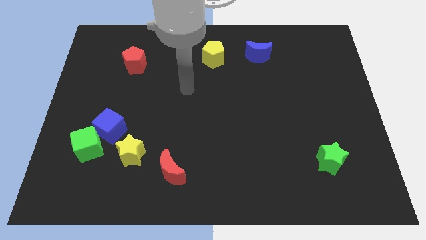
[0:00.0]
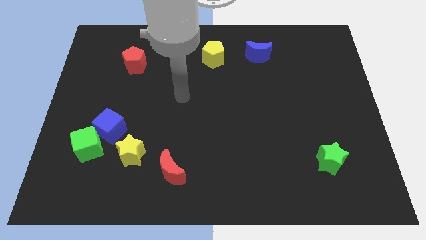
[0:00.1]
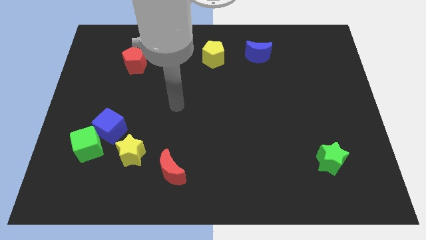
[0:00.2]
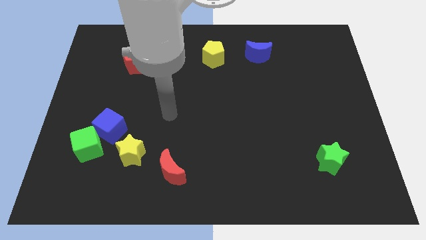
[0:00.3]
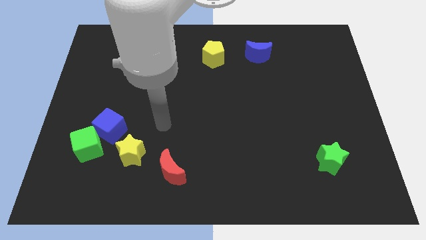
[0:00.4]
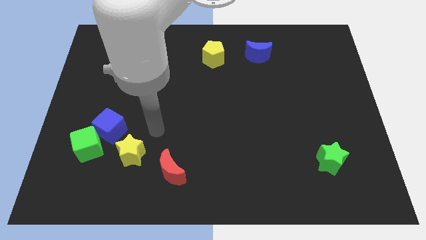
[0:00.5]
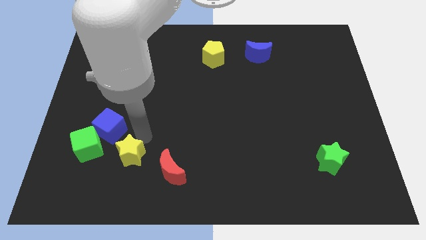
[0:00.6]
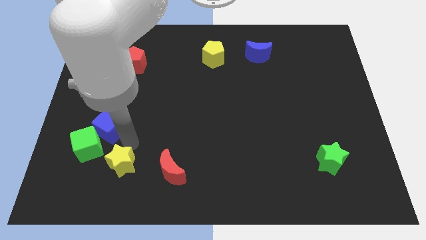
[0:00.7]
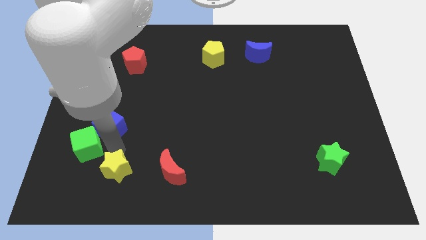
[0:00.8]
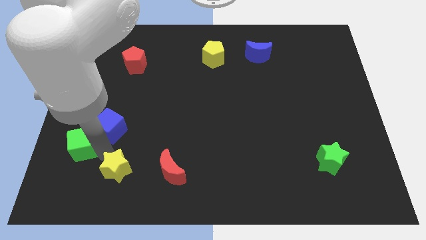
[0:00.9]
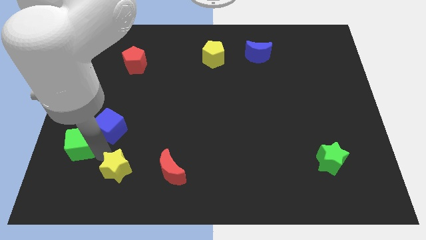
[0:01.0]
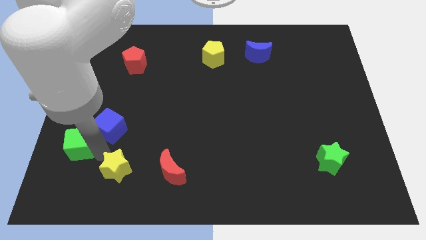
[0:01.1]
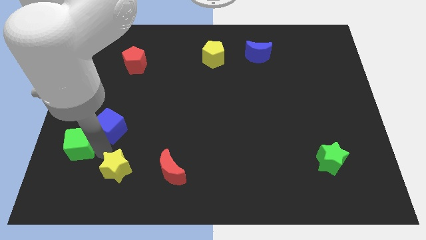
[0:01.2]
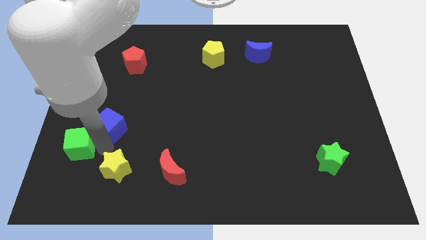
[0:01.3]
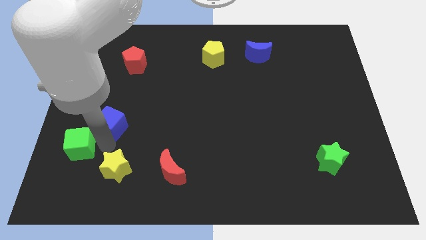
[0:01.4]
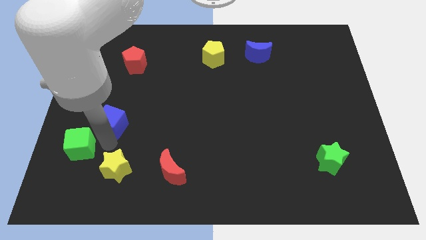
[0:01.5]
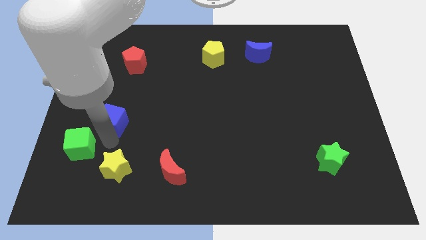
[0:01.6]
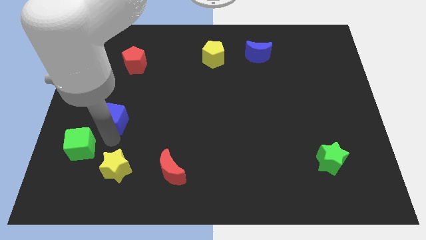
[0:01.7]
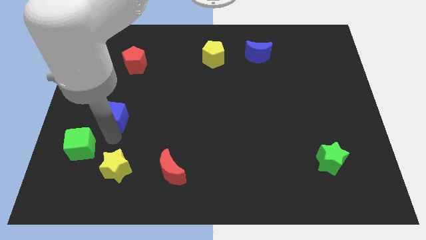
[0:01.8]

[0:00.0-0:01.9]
separate the blue cube from the green cube and yellow star

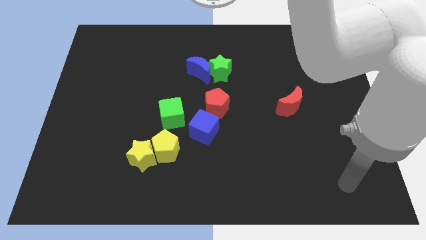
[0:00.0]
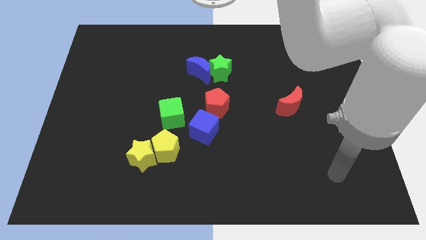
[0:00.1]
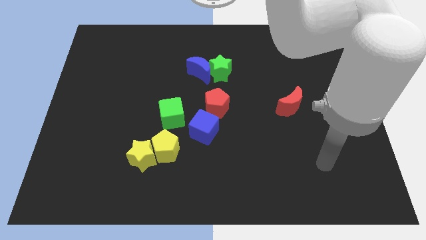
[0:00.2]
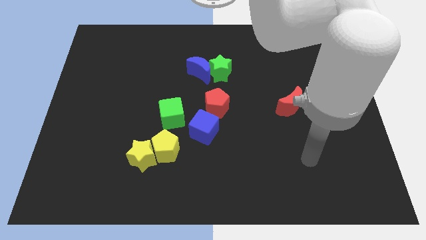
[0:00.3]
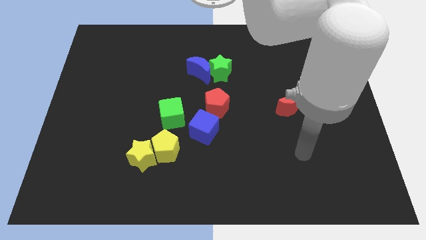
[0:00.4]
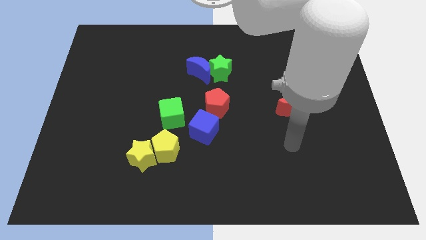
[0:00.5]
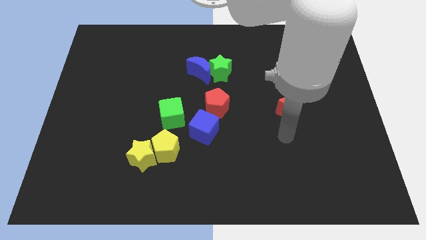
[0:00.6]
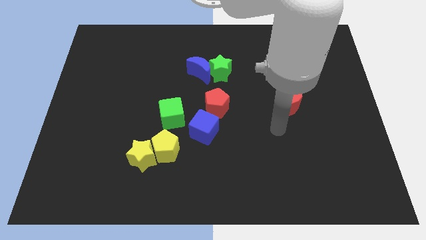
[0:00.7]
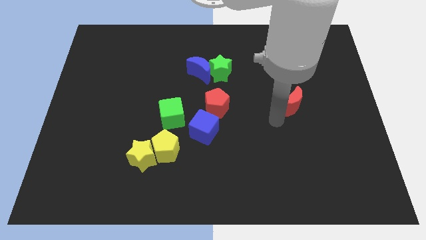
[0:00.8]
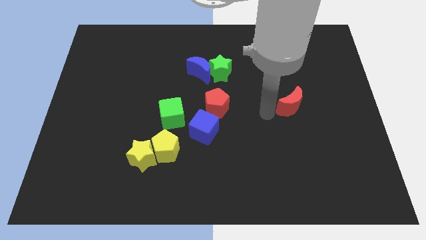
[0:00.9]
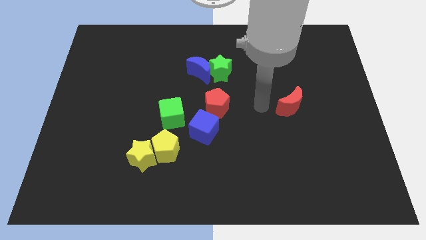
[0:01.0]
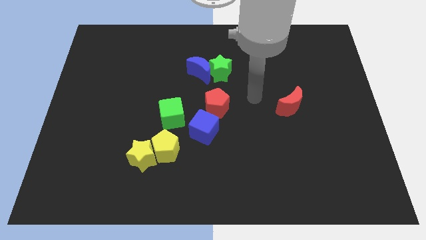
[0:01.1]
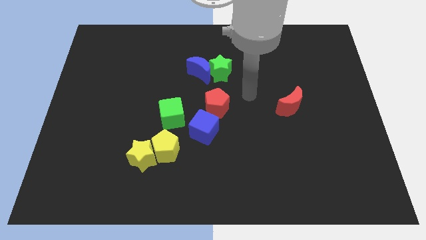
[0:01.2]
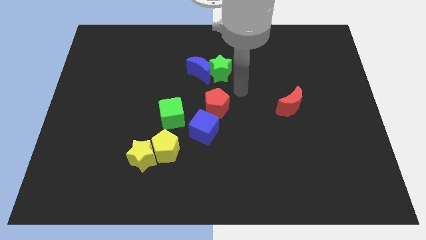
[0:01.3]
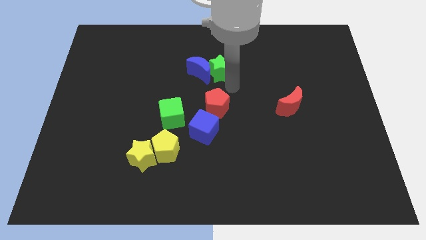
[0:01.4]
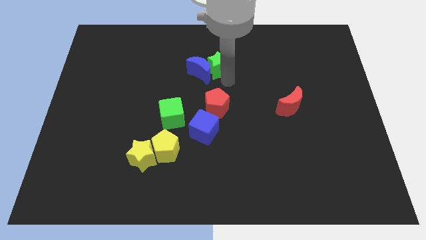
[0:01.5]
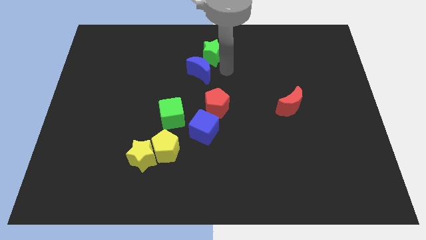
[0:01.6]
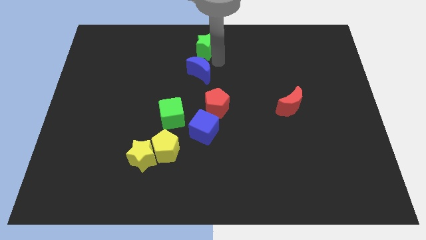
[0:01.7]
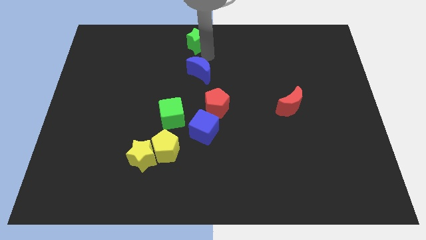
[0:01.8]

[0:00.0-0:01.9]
move the blue moon away from the green star

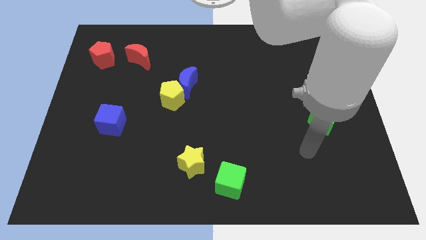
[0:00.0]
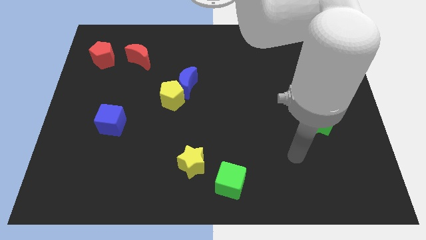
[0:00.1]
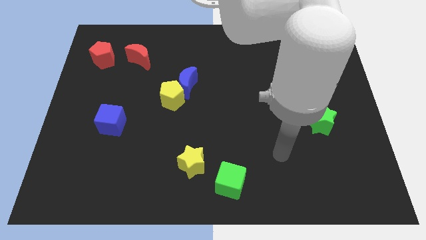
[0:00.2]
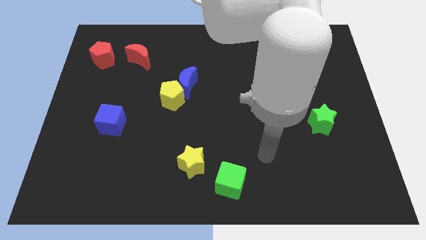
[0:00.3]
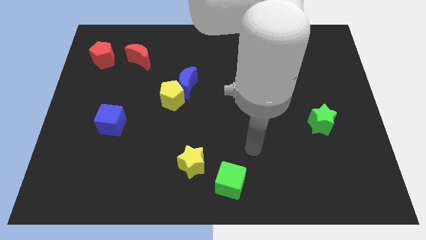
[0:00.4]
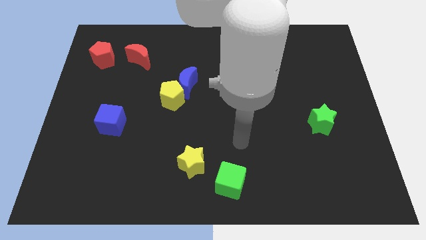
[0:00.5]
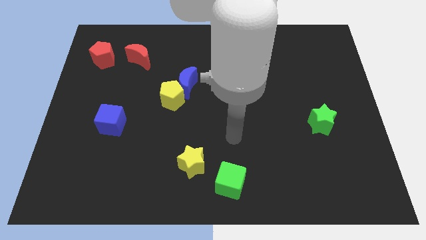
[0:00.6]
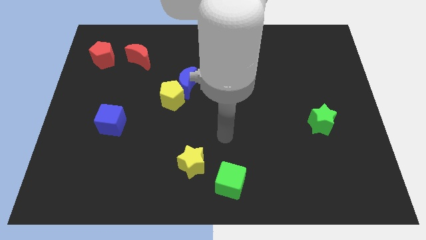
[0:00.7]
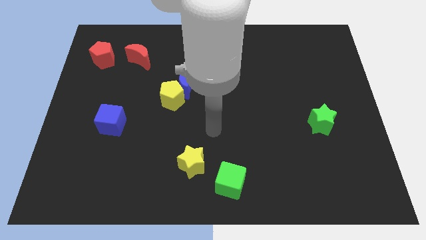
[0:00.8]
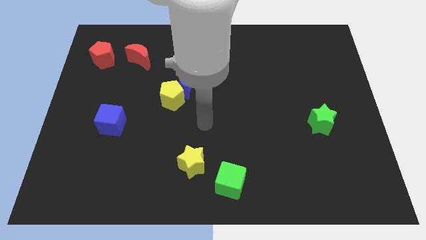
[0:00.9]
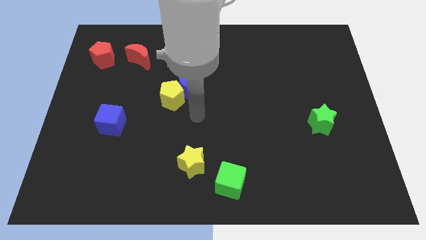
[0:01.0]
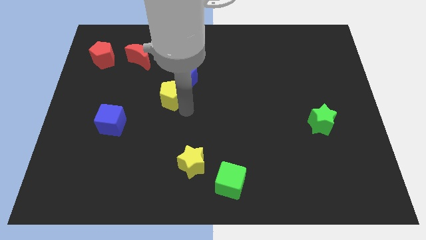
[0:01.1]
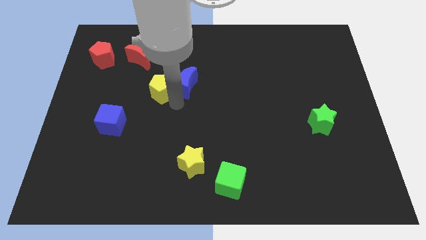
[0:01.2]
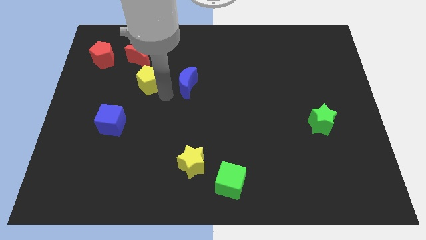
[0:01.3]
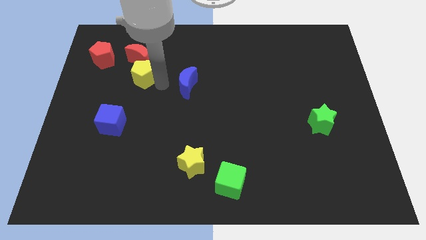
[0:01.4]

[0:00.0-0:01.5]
pull the blue moon apart from the yellow pentagon

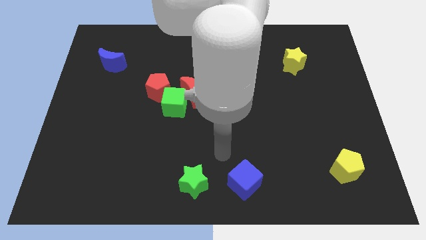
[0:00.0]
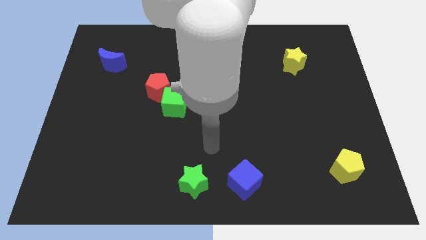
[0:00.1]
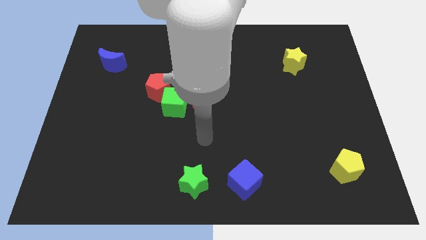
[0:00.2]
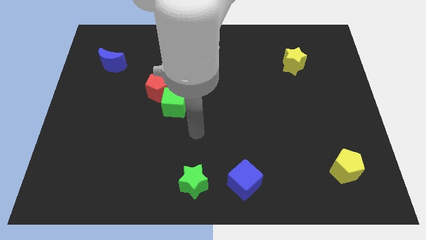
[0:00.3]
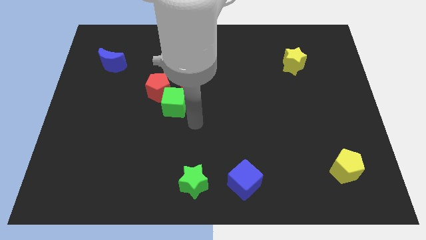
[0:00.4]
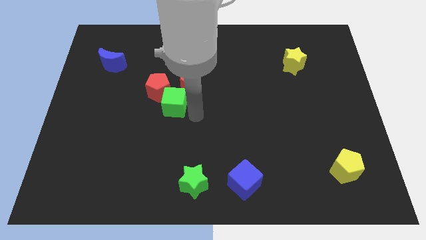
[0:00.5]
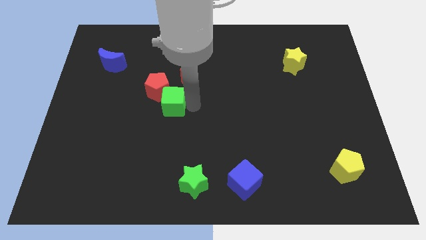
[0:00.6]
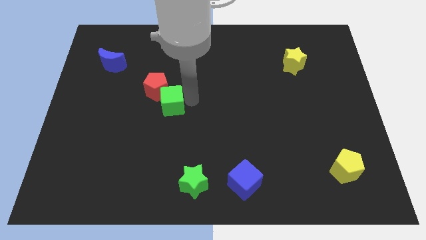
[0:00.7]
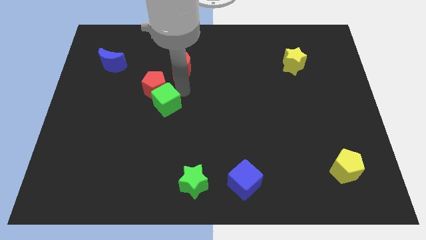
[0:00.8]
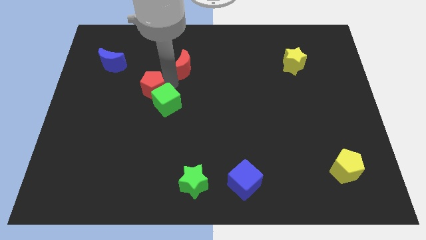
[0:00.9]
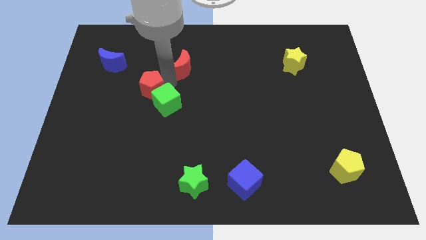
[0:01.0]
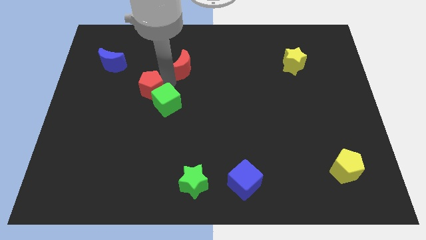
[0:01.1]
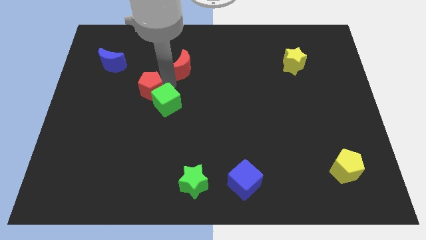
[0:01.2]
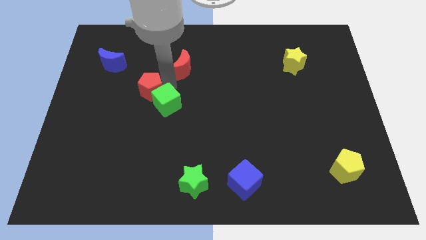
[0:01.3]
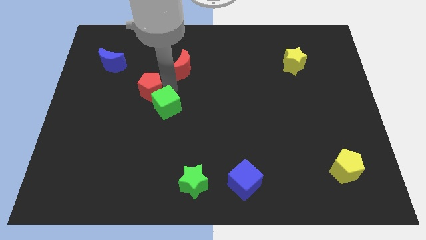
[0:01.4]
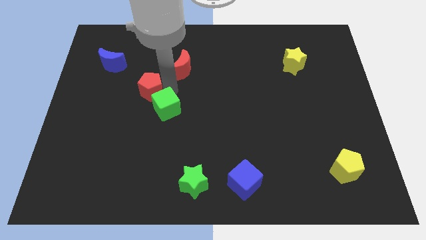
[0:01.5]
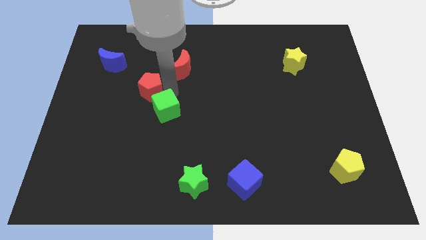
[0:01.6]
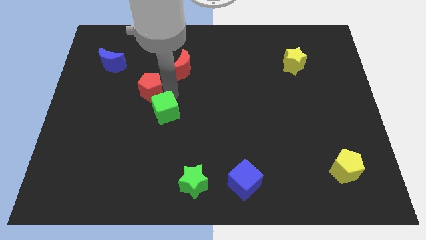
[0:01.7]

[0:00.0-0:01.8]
move the green cube away from the red moon and red pentagon

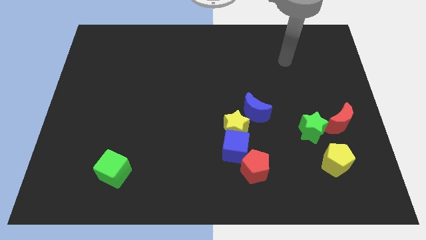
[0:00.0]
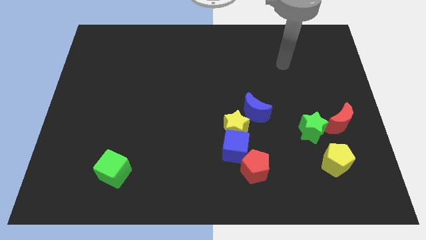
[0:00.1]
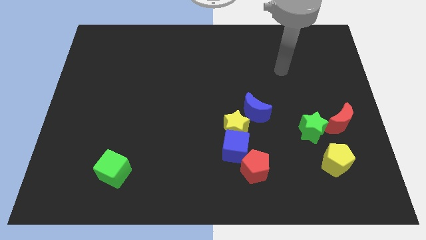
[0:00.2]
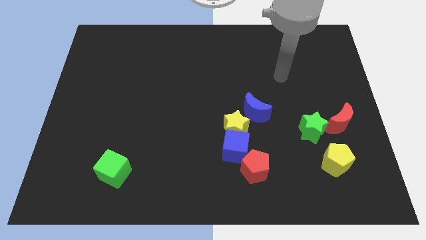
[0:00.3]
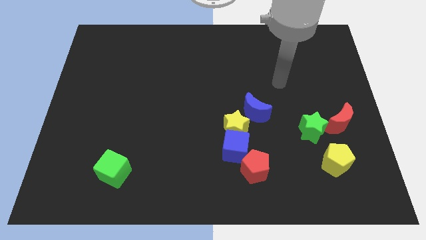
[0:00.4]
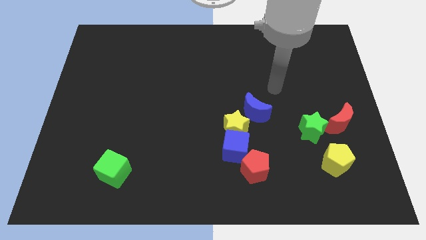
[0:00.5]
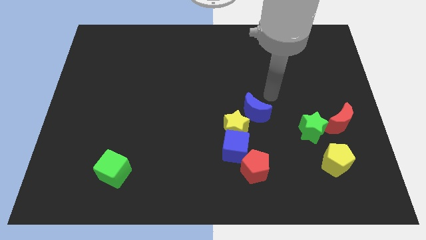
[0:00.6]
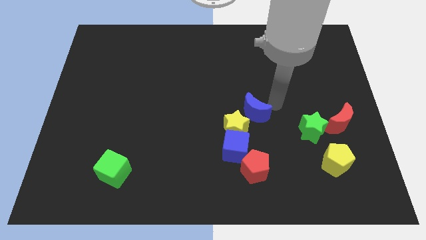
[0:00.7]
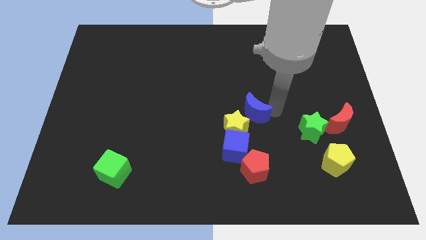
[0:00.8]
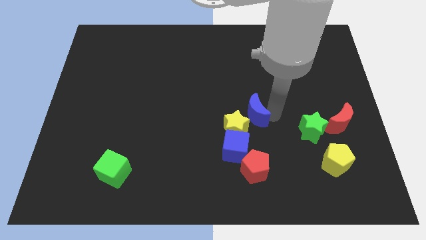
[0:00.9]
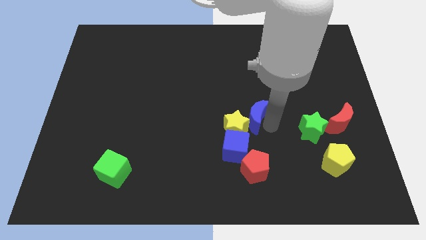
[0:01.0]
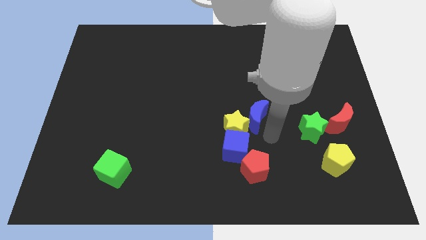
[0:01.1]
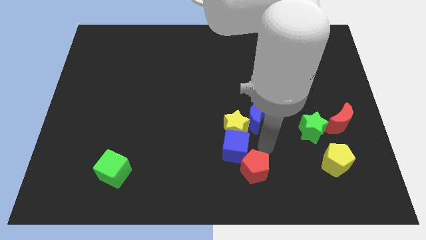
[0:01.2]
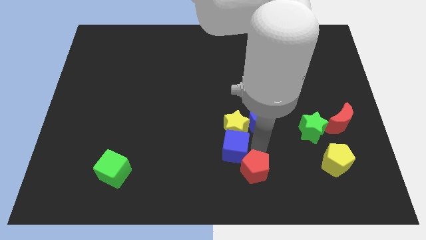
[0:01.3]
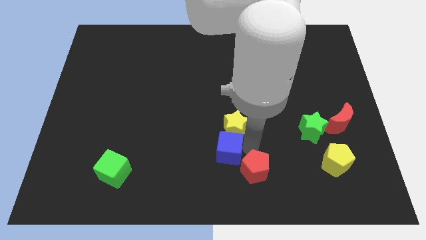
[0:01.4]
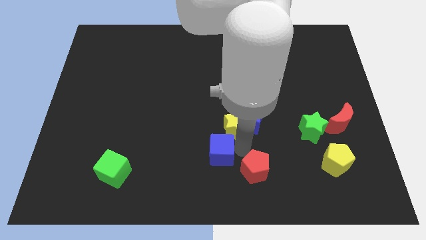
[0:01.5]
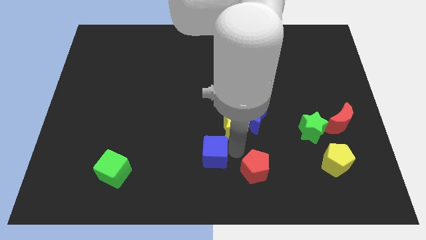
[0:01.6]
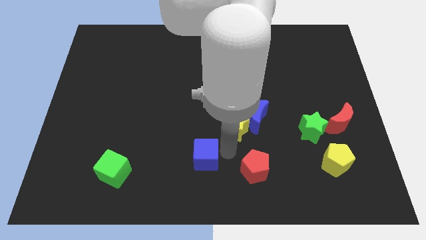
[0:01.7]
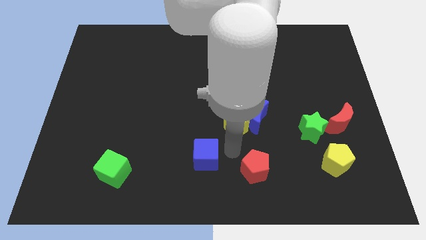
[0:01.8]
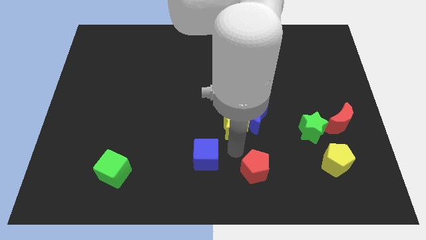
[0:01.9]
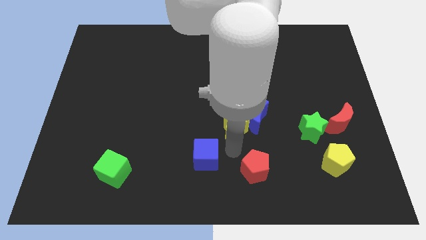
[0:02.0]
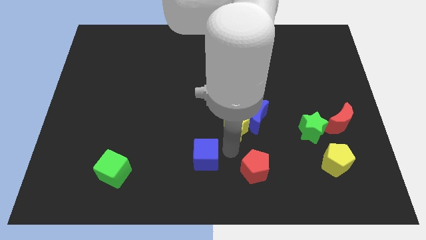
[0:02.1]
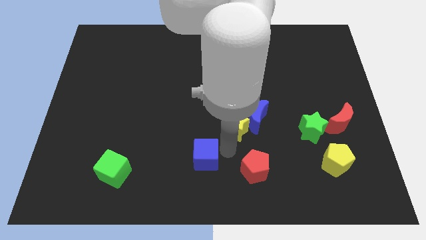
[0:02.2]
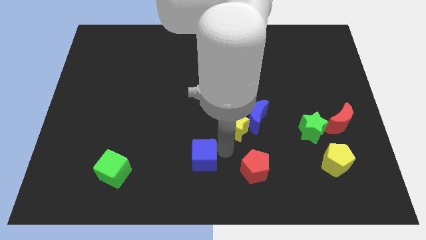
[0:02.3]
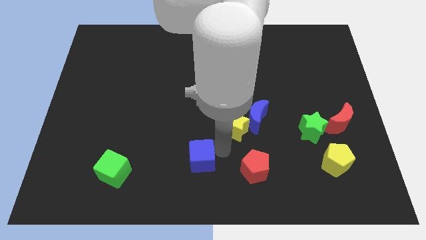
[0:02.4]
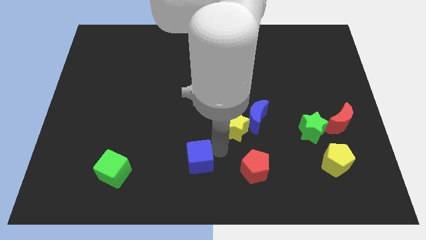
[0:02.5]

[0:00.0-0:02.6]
move the blue cube away from the yellow star and red pentagon
